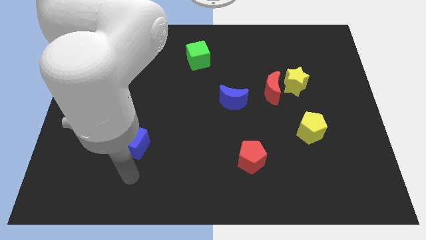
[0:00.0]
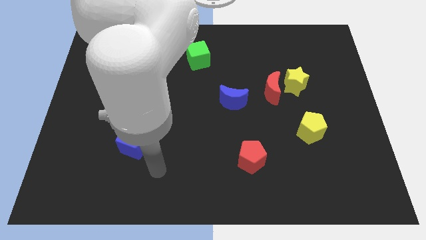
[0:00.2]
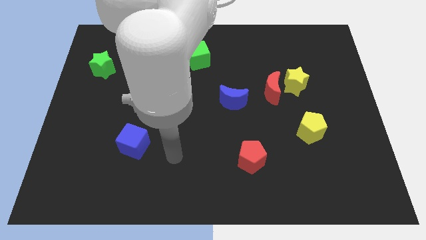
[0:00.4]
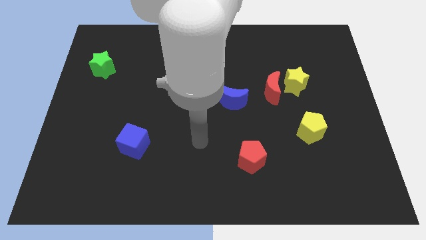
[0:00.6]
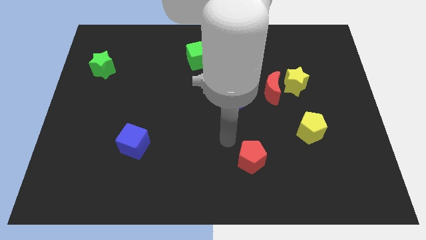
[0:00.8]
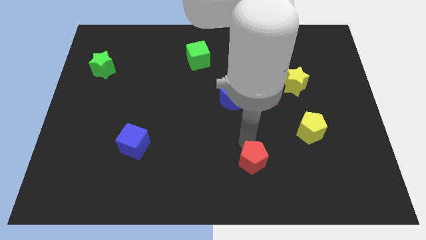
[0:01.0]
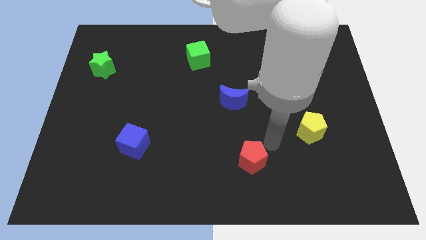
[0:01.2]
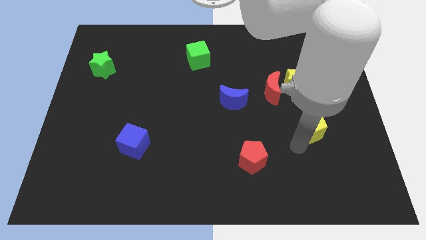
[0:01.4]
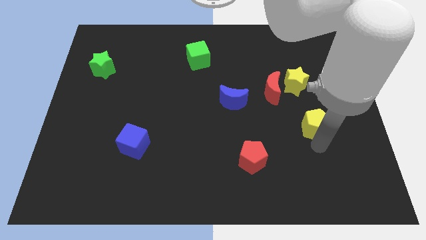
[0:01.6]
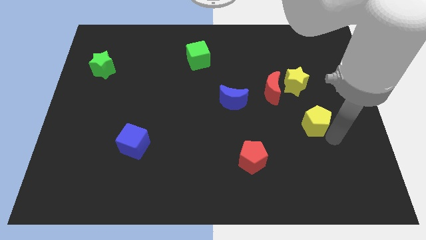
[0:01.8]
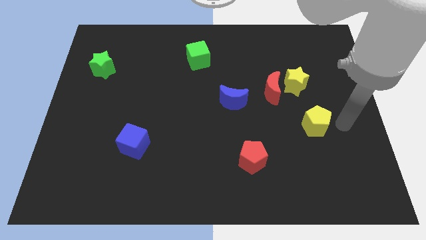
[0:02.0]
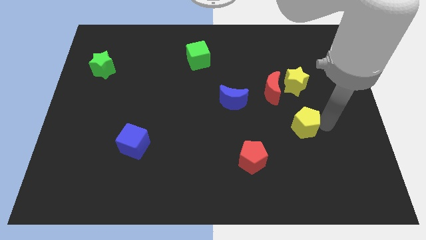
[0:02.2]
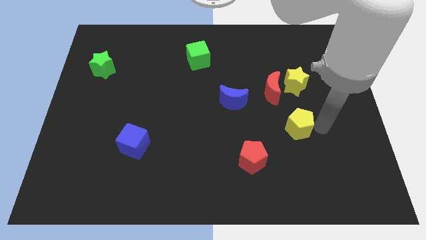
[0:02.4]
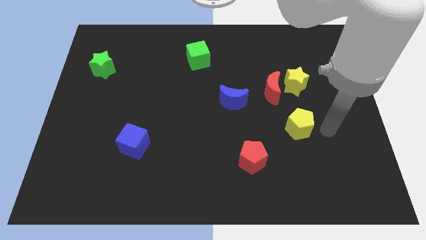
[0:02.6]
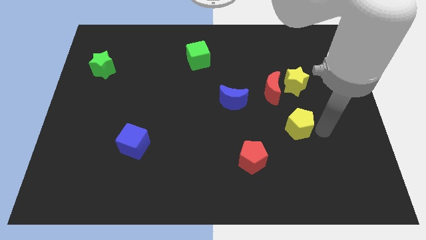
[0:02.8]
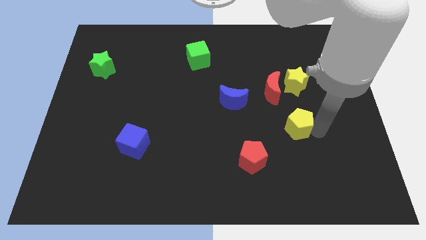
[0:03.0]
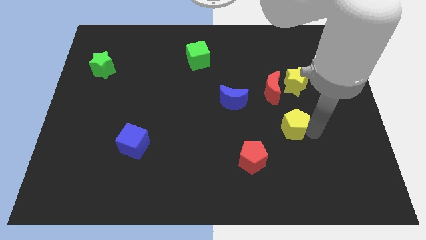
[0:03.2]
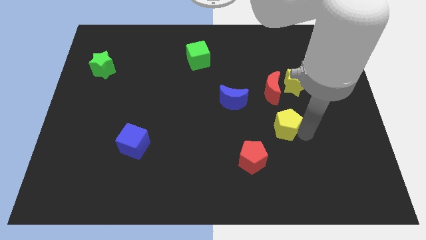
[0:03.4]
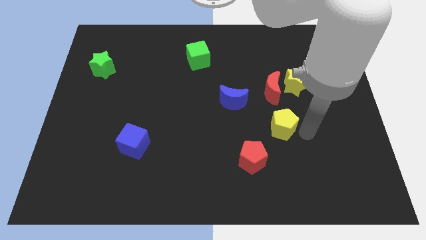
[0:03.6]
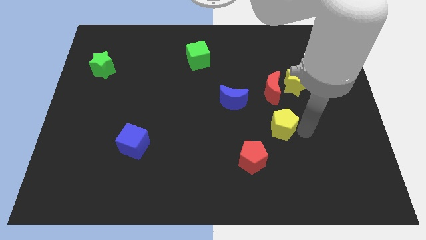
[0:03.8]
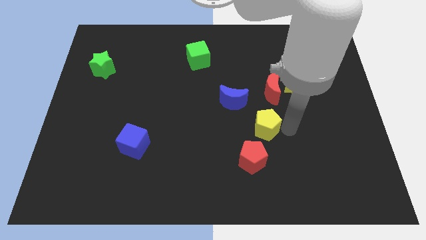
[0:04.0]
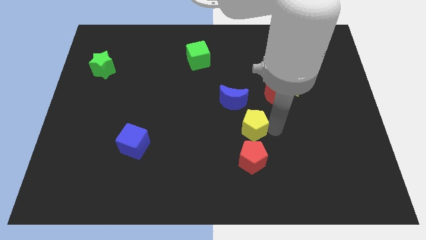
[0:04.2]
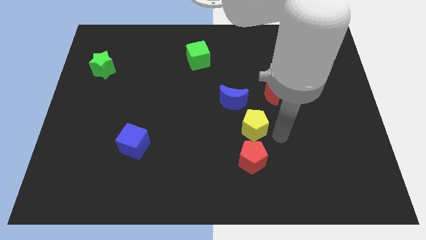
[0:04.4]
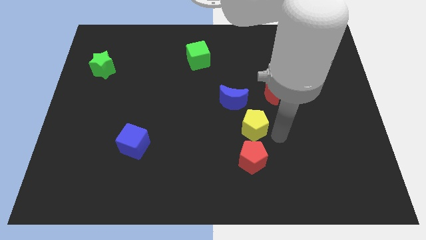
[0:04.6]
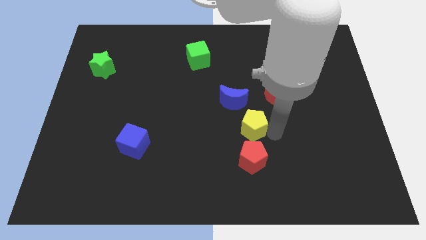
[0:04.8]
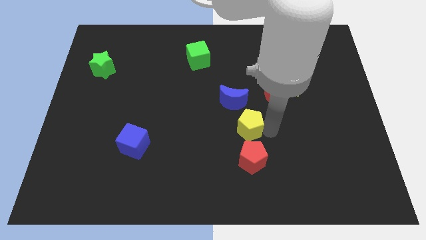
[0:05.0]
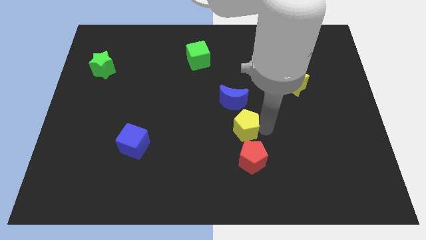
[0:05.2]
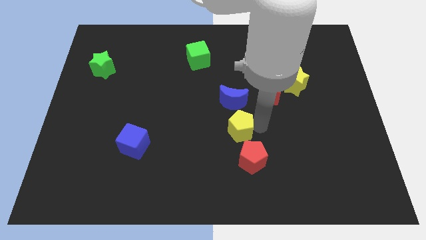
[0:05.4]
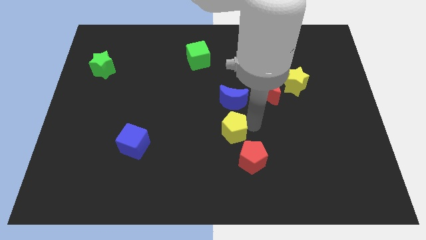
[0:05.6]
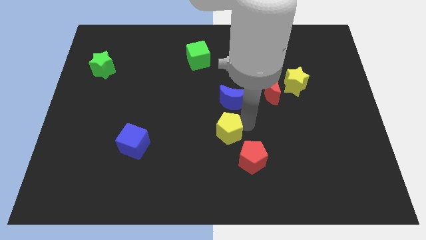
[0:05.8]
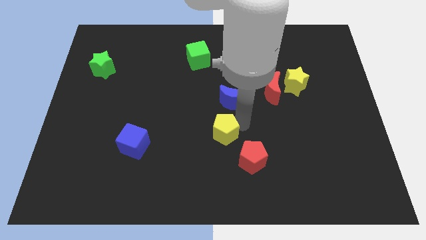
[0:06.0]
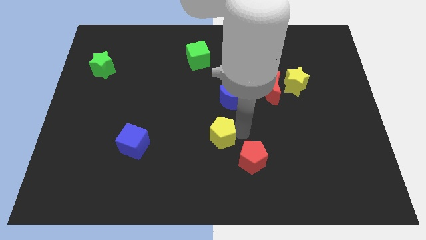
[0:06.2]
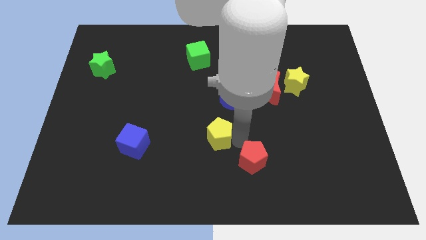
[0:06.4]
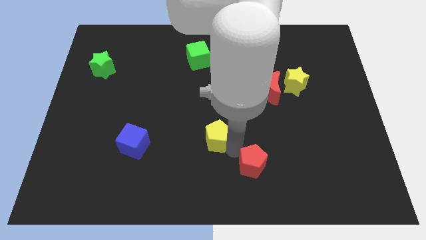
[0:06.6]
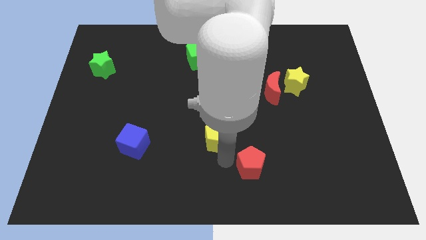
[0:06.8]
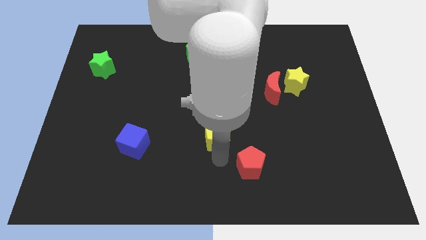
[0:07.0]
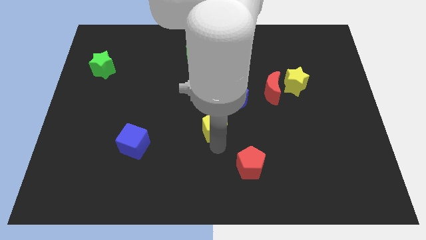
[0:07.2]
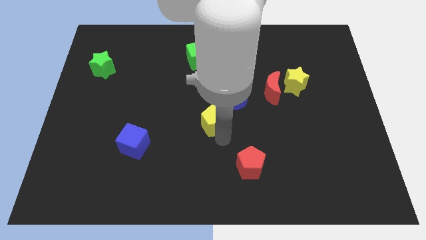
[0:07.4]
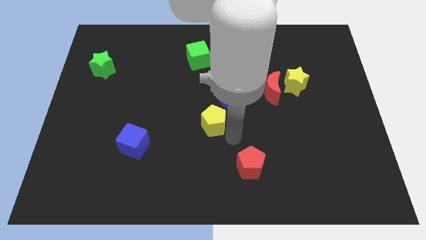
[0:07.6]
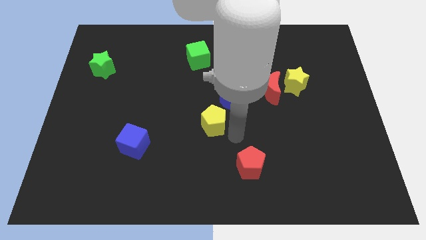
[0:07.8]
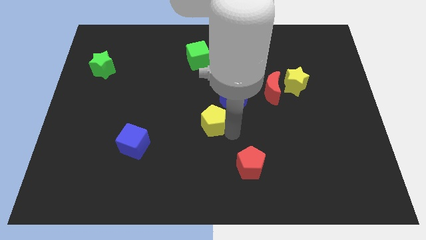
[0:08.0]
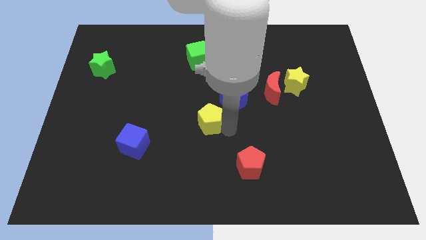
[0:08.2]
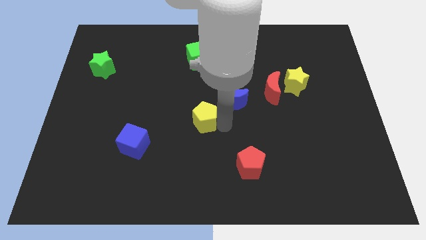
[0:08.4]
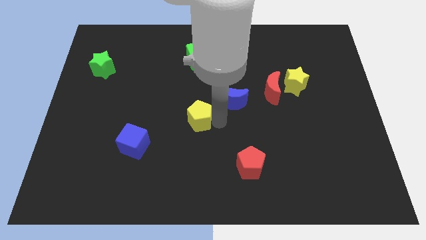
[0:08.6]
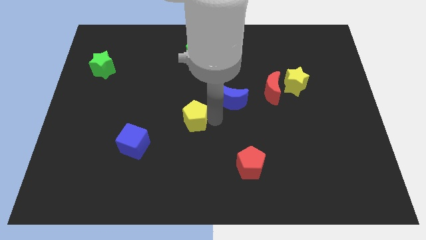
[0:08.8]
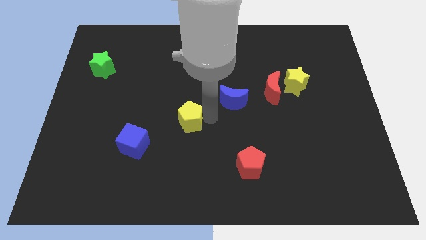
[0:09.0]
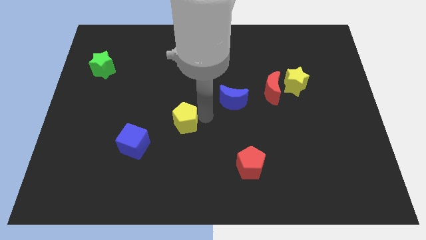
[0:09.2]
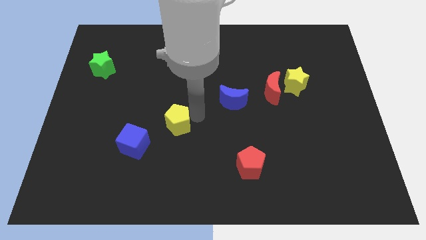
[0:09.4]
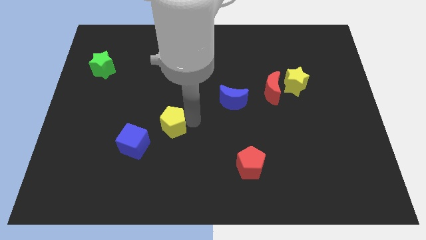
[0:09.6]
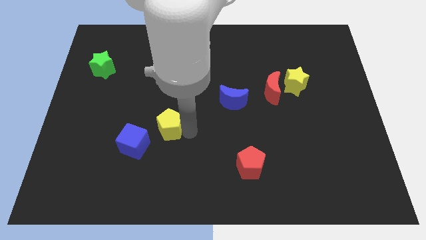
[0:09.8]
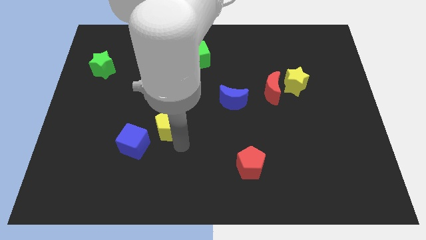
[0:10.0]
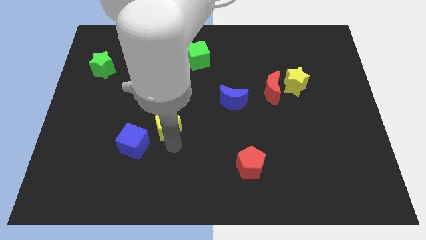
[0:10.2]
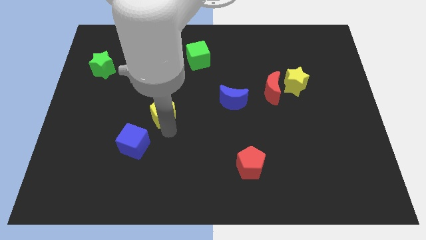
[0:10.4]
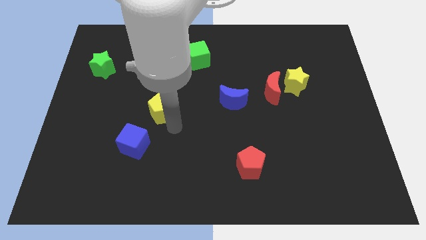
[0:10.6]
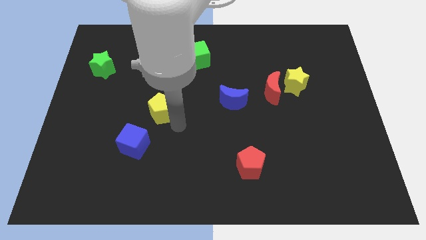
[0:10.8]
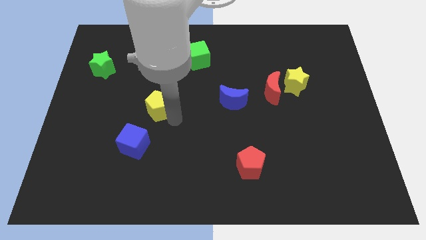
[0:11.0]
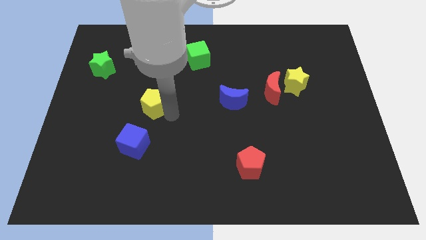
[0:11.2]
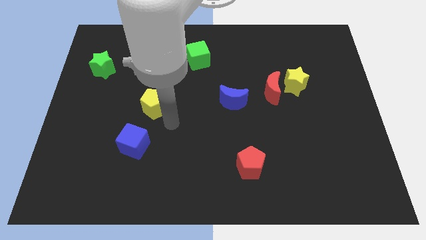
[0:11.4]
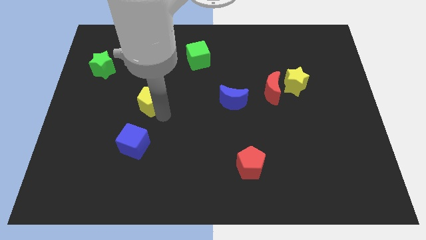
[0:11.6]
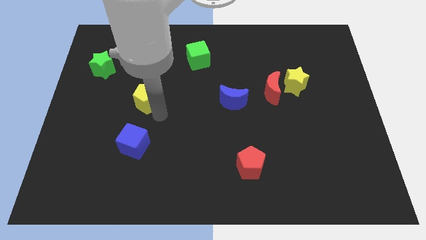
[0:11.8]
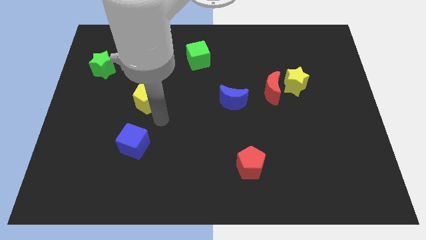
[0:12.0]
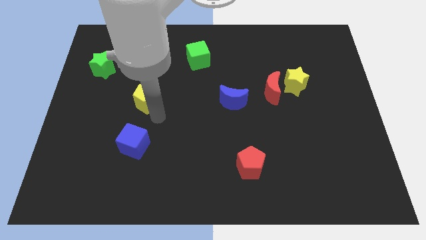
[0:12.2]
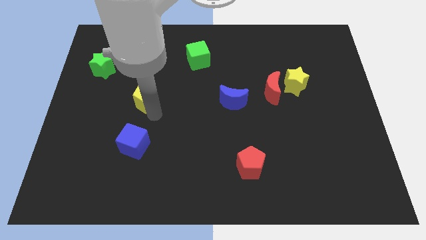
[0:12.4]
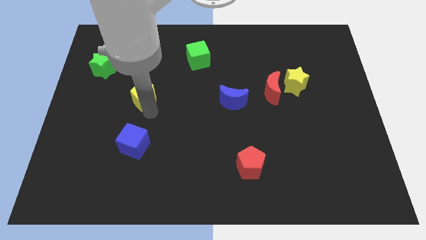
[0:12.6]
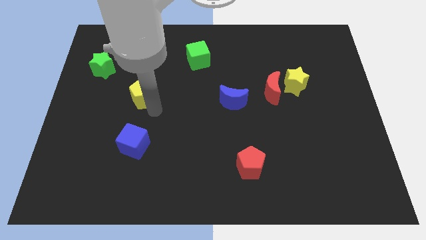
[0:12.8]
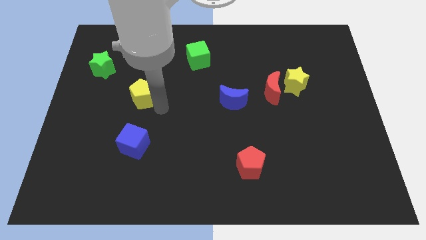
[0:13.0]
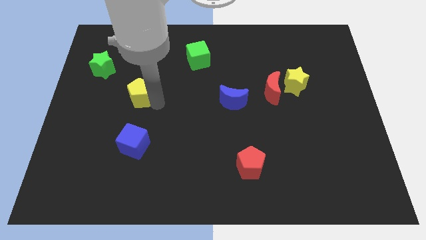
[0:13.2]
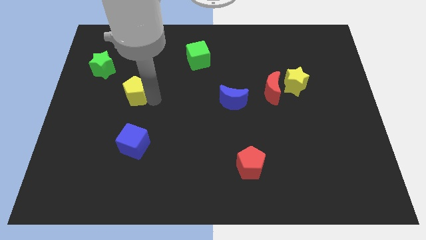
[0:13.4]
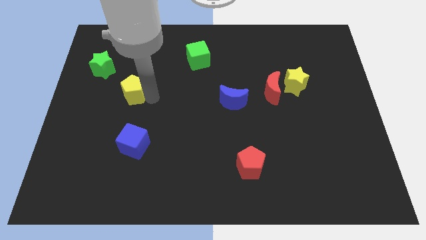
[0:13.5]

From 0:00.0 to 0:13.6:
push the yellow pentagon to the bottom right of the green star
